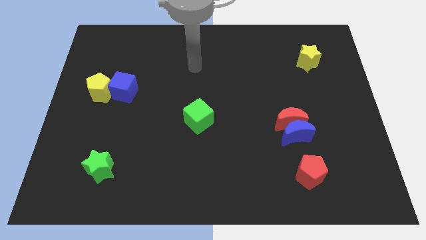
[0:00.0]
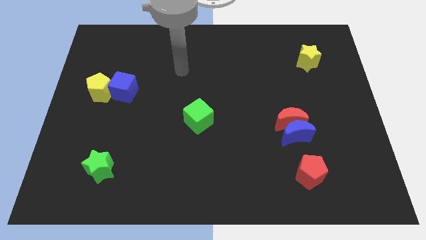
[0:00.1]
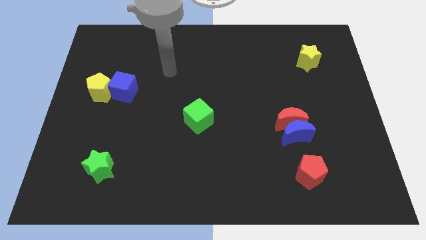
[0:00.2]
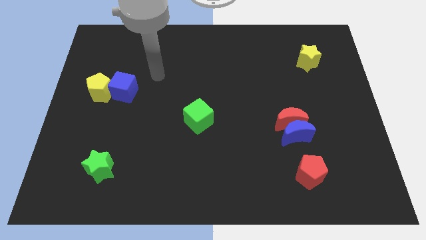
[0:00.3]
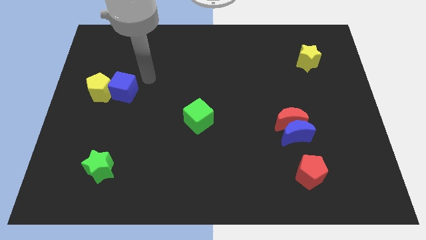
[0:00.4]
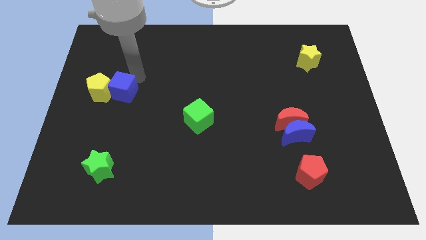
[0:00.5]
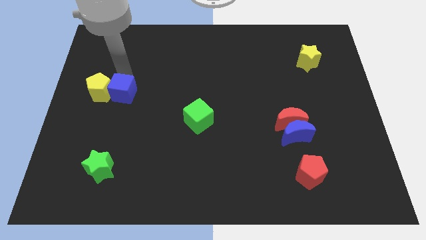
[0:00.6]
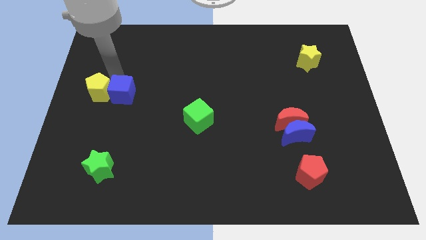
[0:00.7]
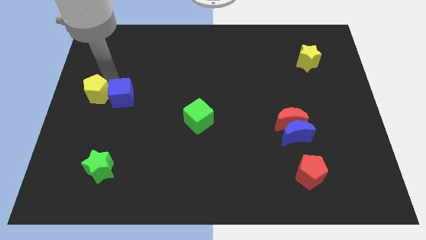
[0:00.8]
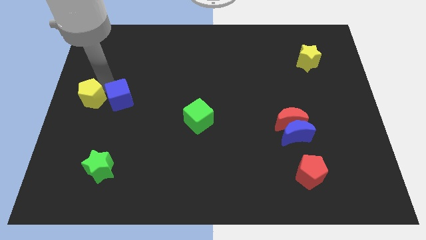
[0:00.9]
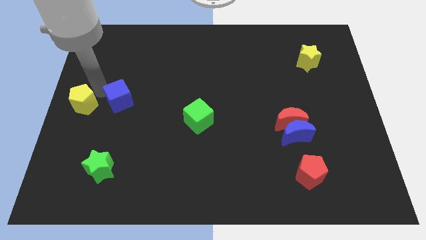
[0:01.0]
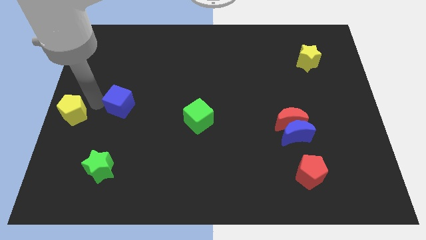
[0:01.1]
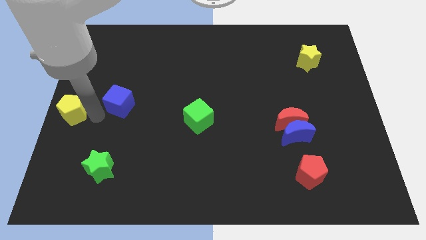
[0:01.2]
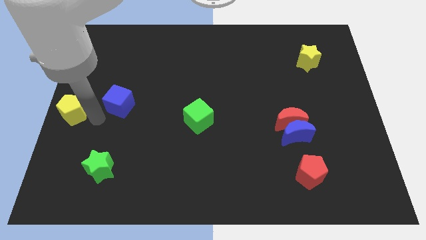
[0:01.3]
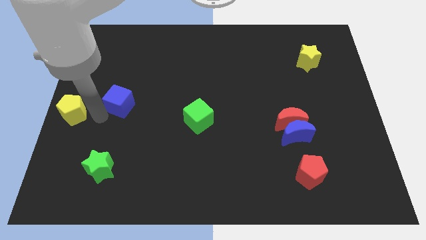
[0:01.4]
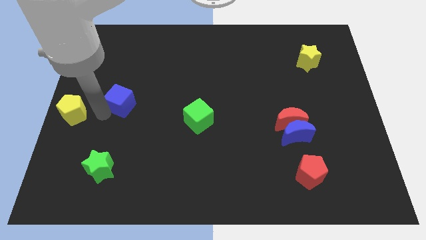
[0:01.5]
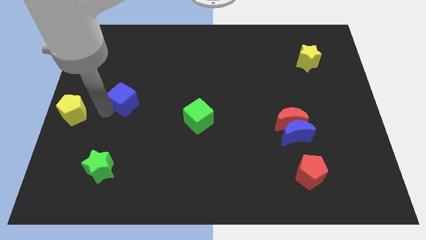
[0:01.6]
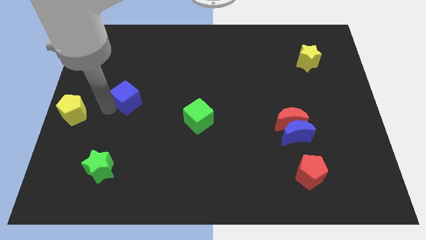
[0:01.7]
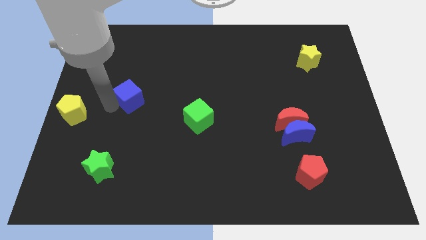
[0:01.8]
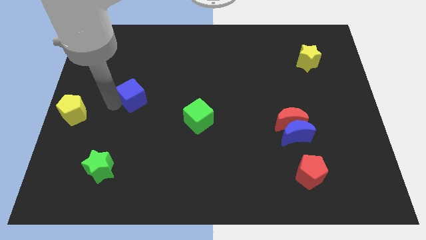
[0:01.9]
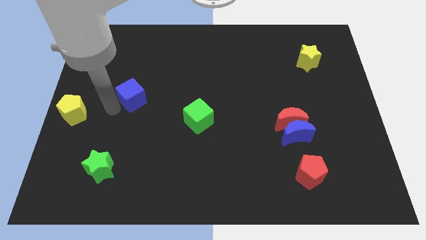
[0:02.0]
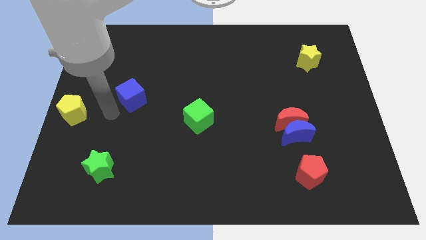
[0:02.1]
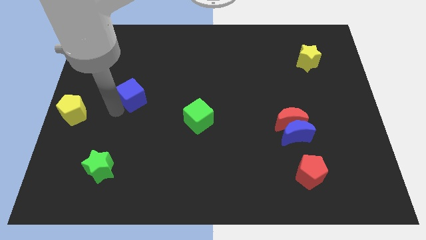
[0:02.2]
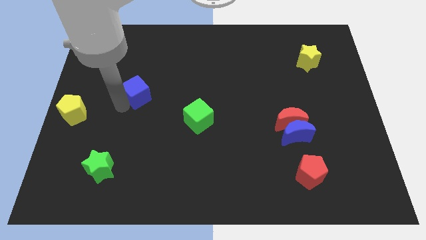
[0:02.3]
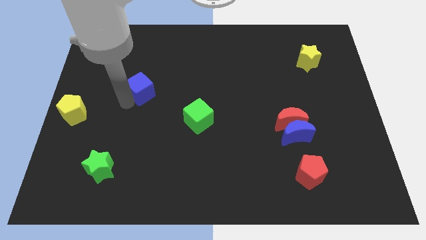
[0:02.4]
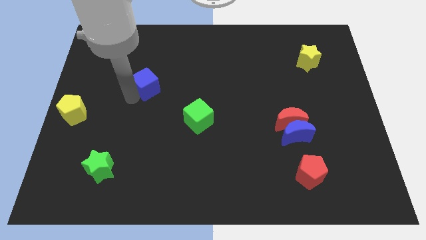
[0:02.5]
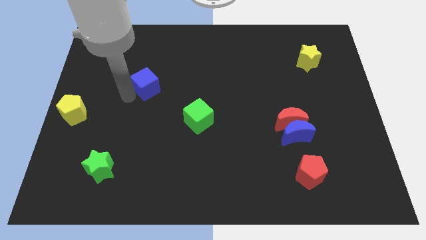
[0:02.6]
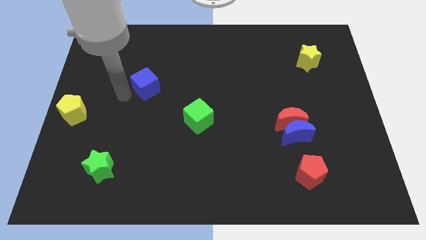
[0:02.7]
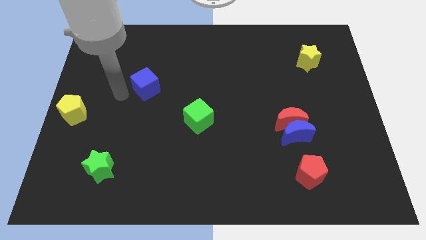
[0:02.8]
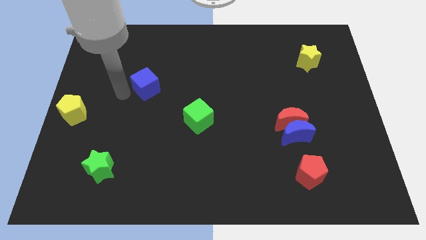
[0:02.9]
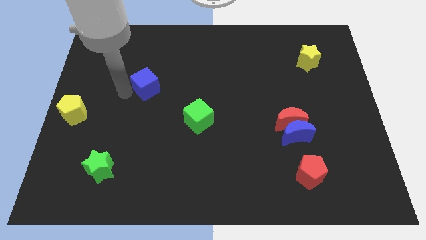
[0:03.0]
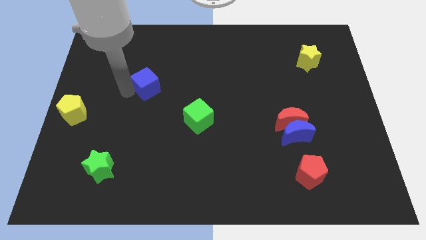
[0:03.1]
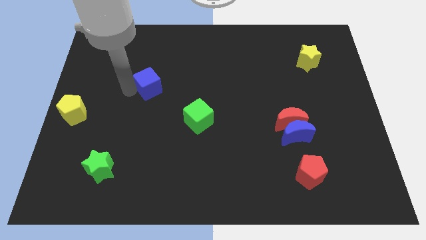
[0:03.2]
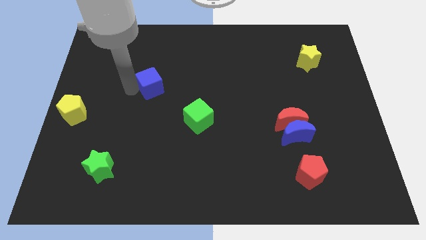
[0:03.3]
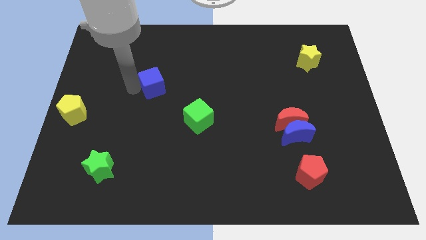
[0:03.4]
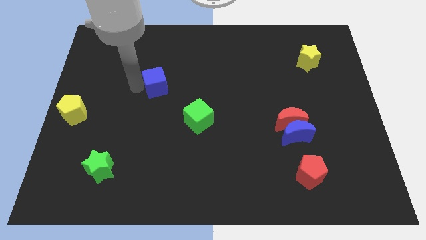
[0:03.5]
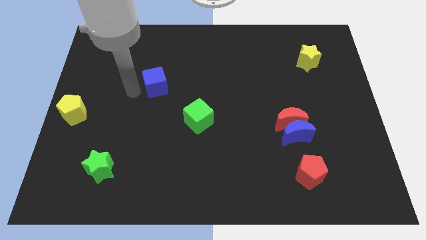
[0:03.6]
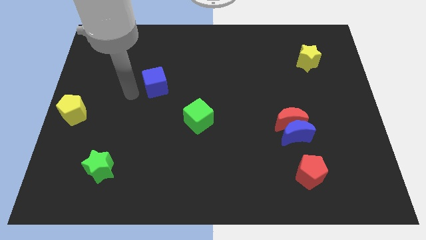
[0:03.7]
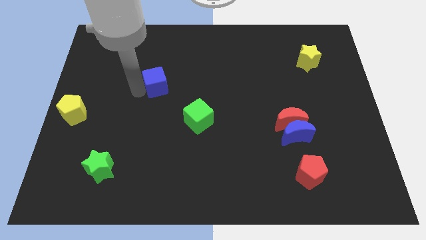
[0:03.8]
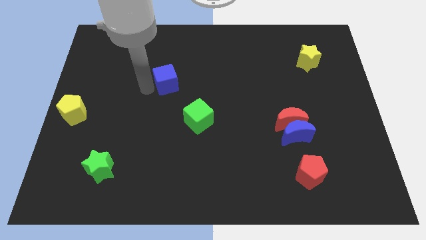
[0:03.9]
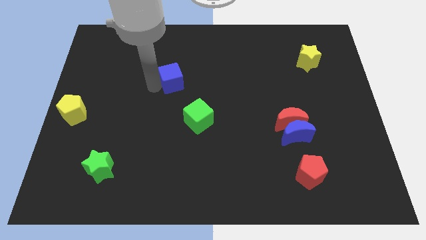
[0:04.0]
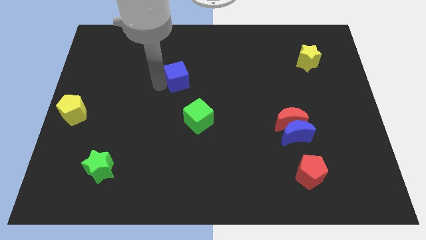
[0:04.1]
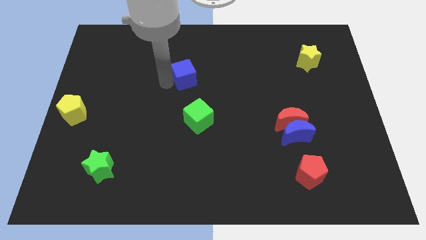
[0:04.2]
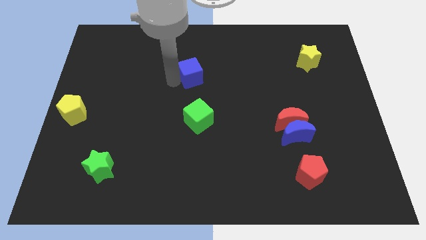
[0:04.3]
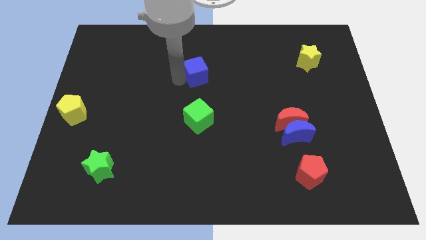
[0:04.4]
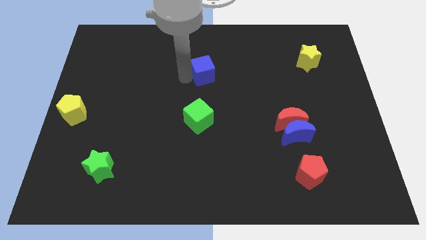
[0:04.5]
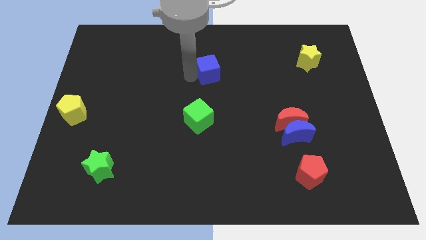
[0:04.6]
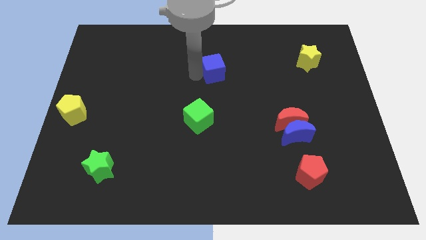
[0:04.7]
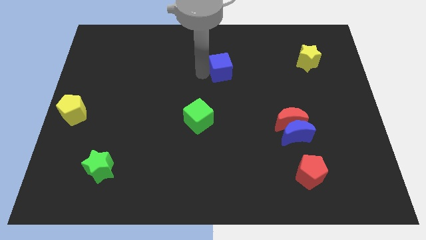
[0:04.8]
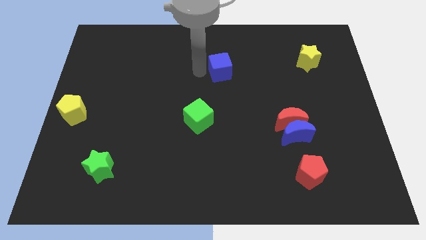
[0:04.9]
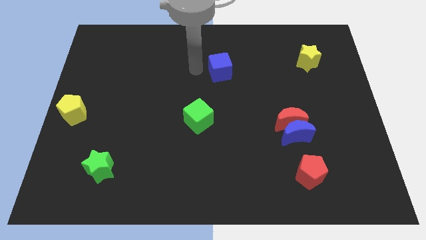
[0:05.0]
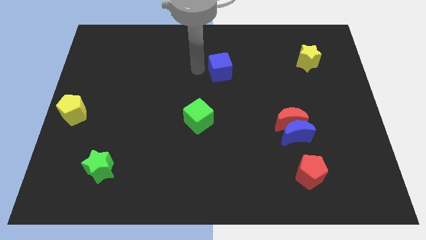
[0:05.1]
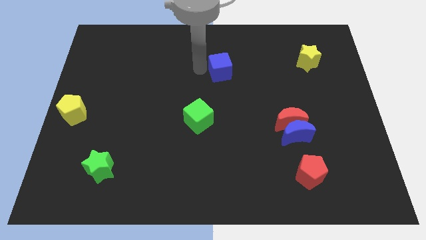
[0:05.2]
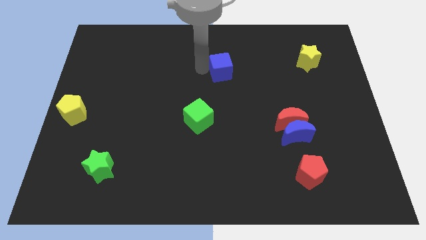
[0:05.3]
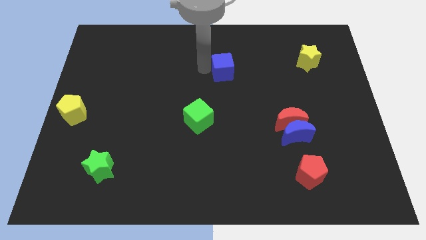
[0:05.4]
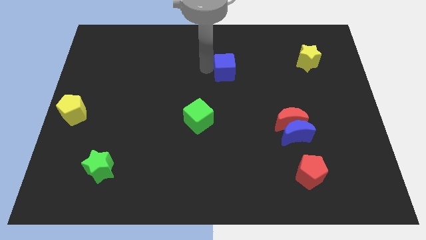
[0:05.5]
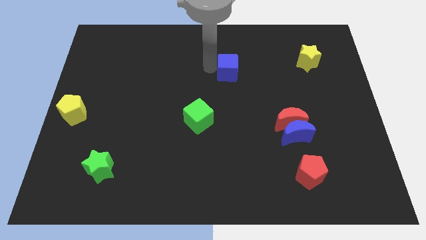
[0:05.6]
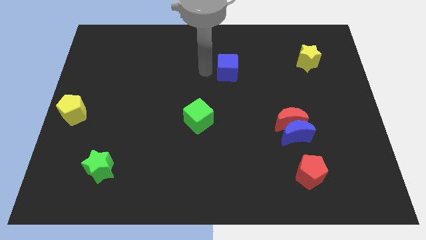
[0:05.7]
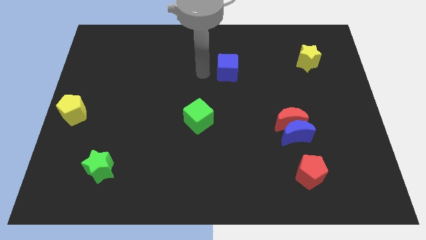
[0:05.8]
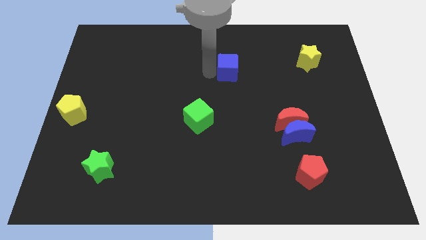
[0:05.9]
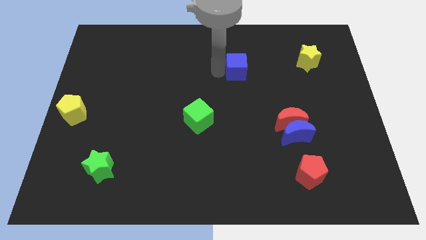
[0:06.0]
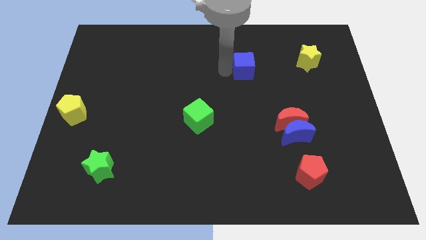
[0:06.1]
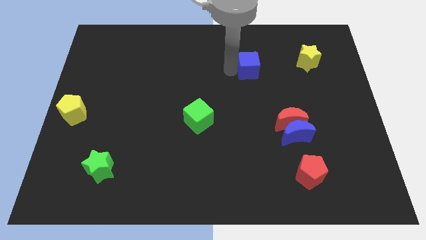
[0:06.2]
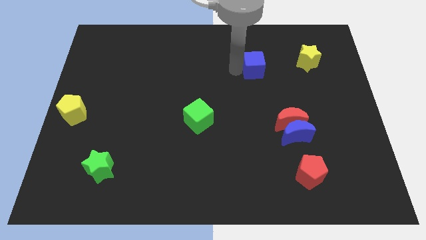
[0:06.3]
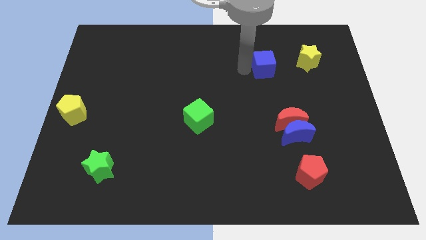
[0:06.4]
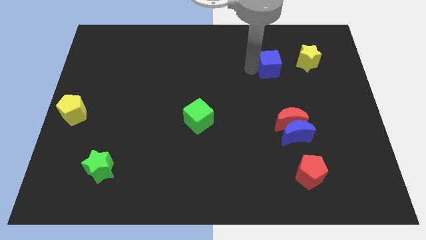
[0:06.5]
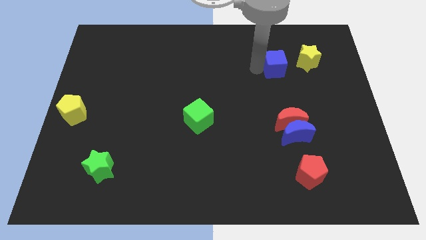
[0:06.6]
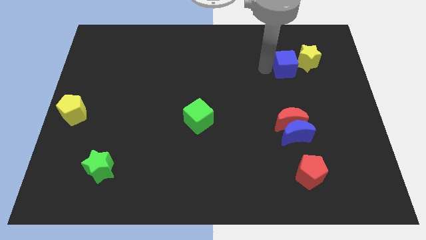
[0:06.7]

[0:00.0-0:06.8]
put the blue cube to the yellow star
